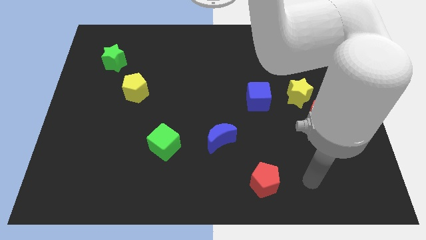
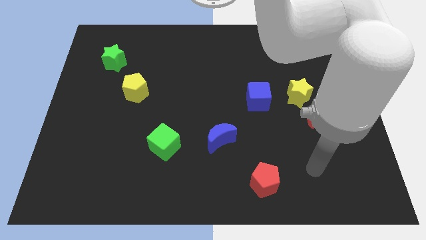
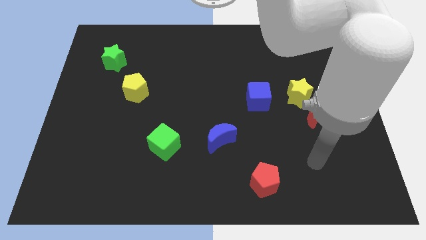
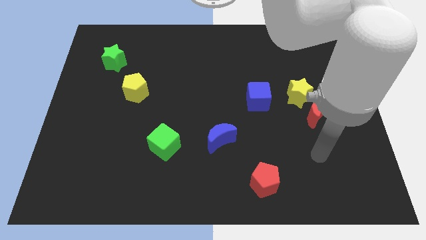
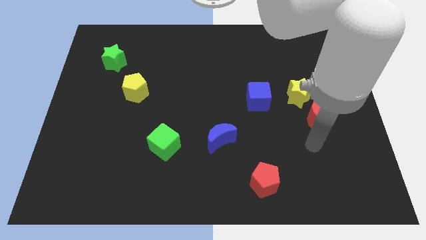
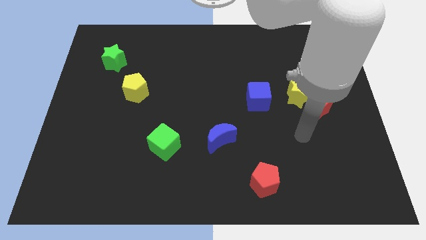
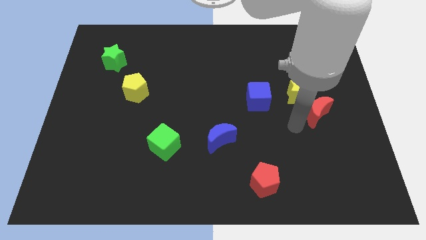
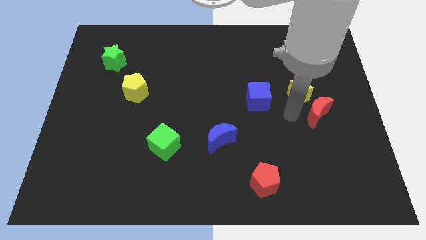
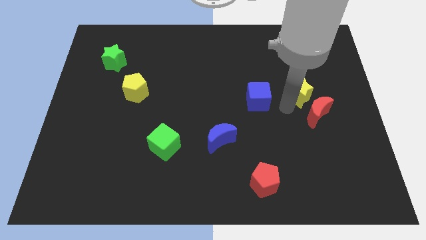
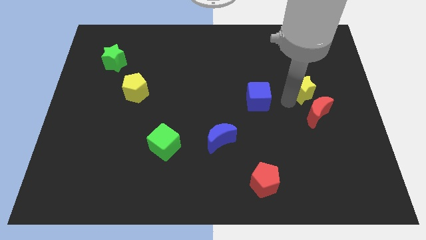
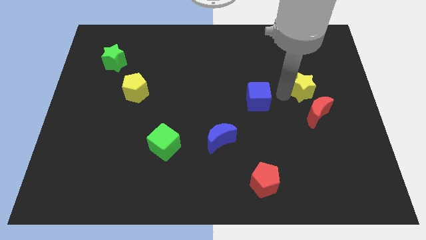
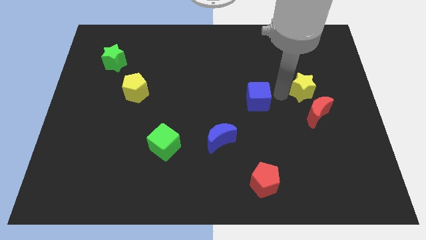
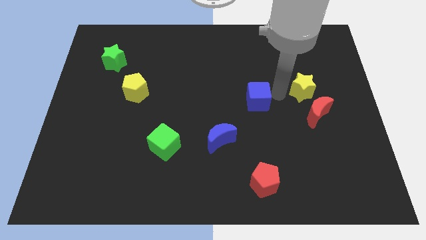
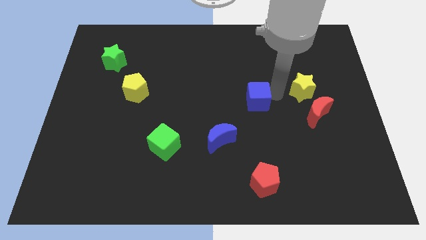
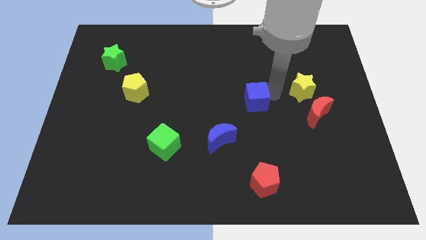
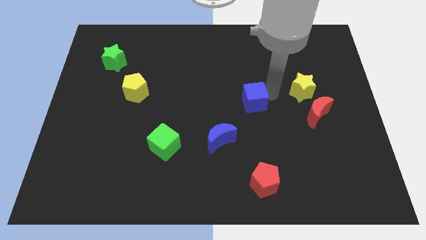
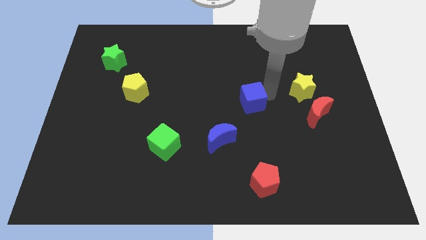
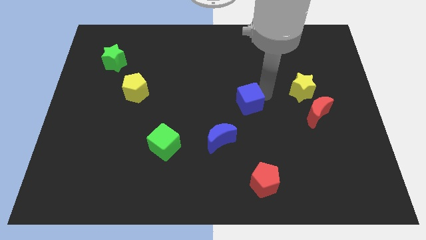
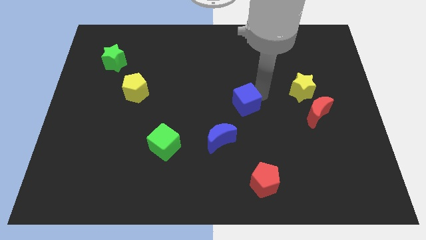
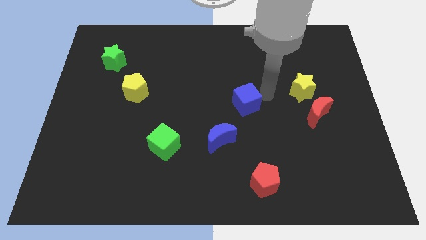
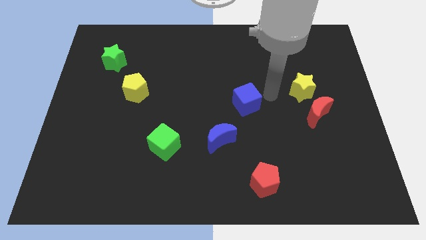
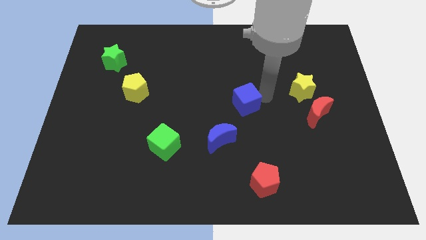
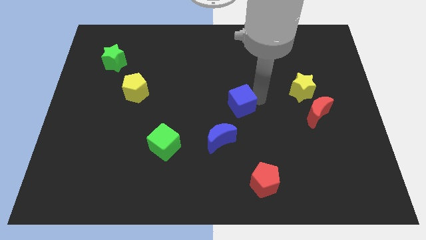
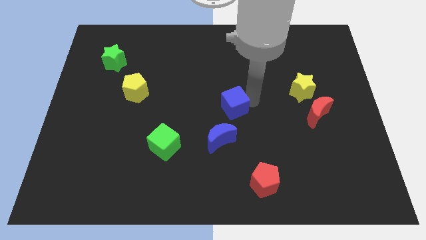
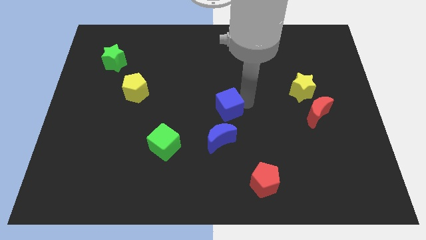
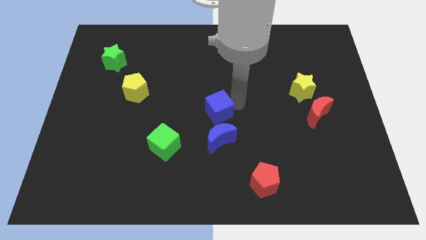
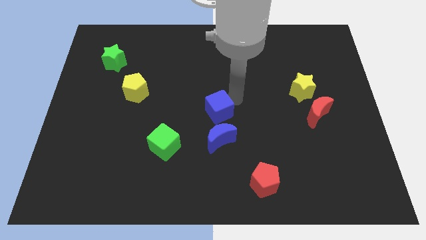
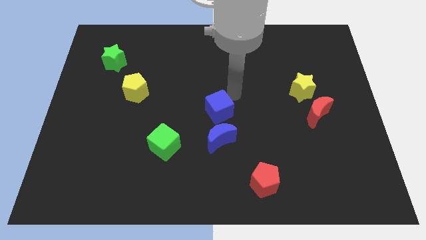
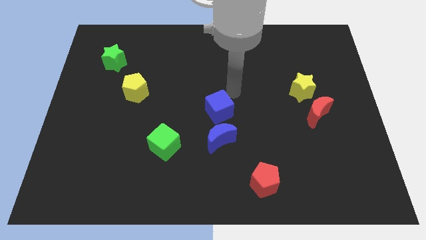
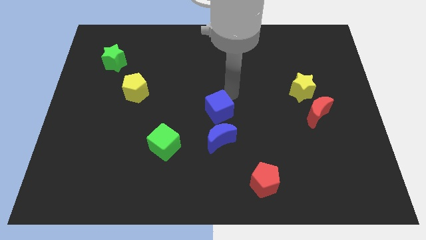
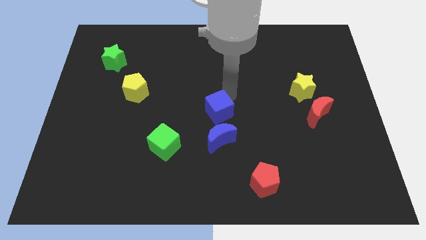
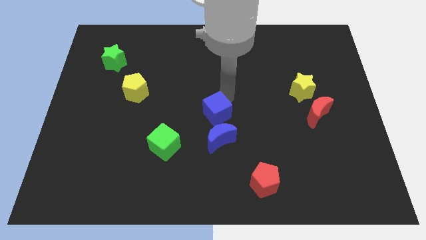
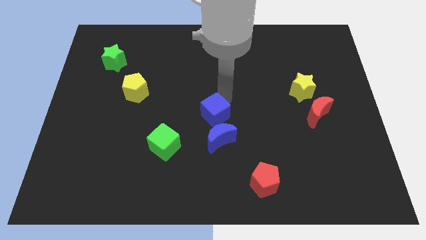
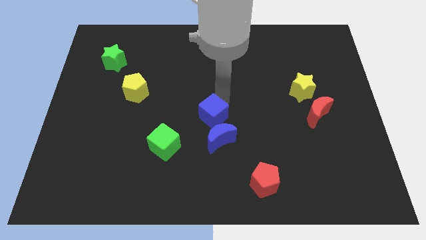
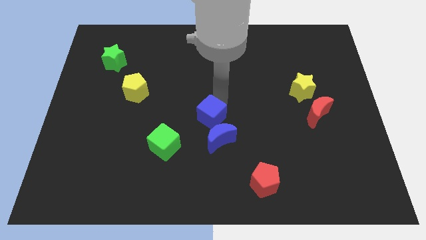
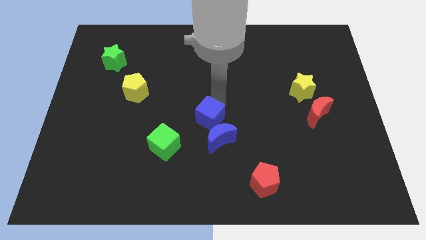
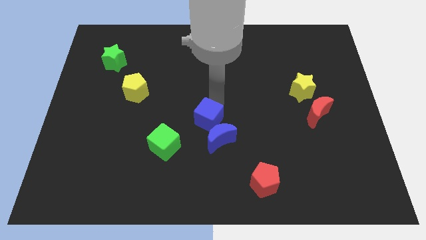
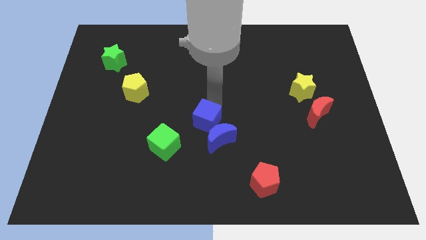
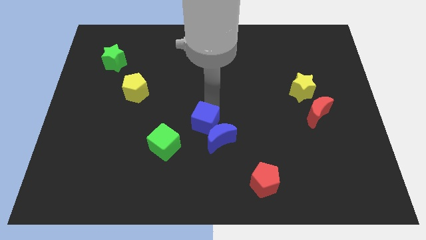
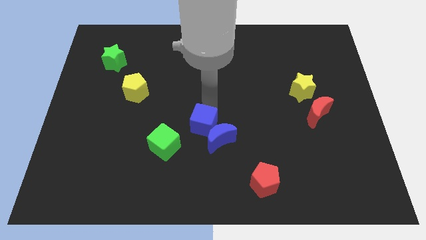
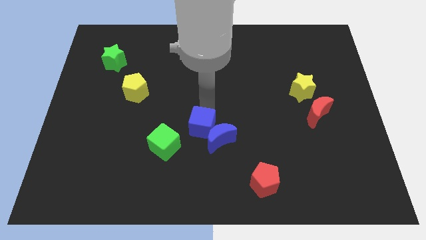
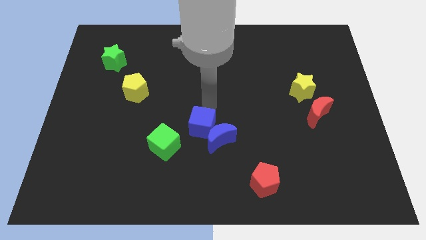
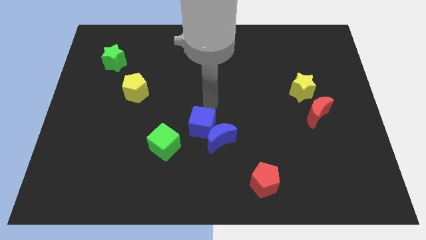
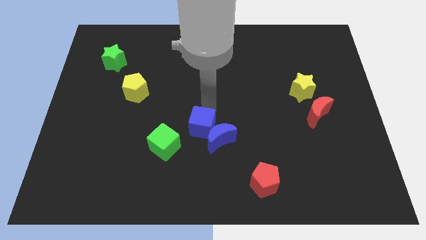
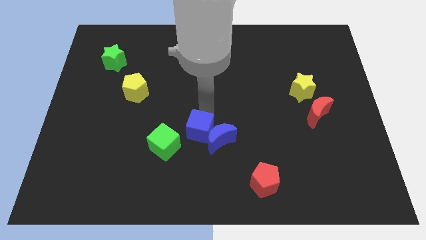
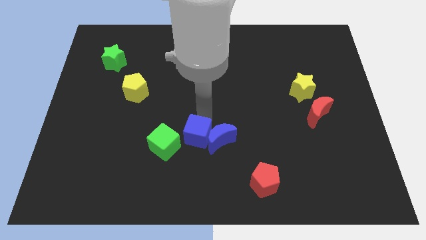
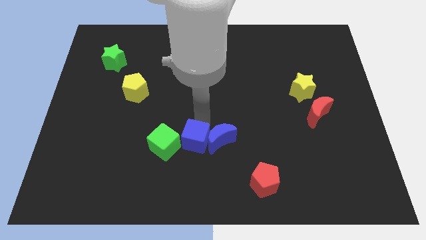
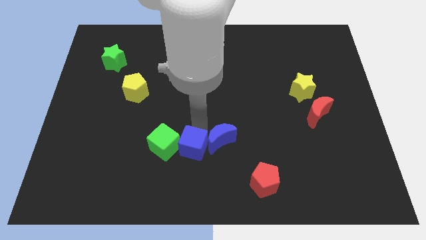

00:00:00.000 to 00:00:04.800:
slide the blue cube diagonally down and to the right of the green cube

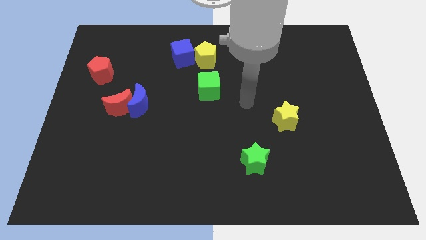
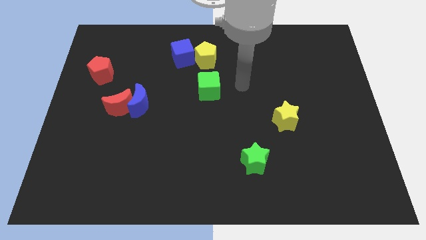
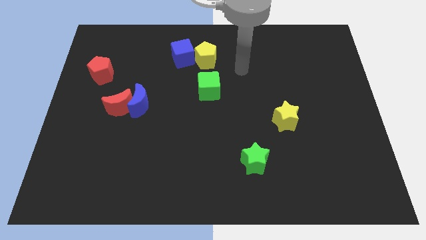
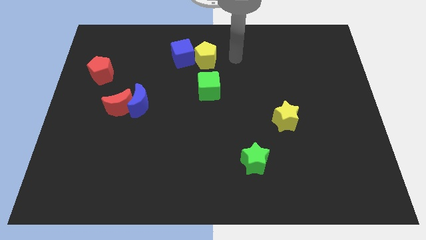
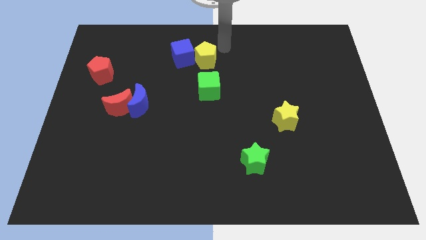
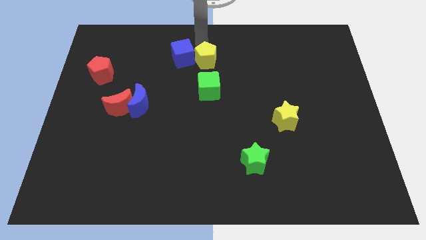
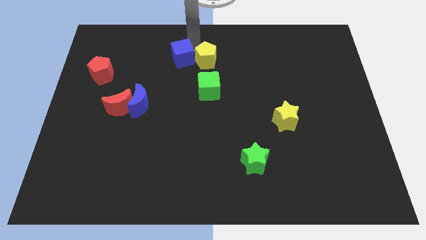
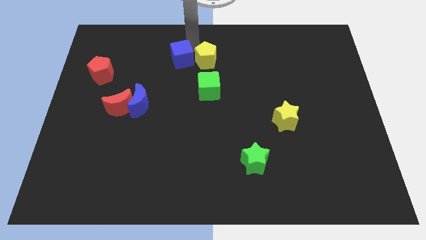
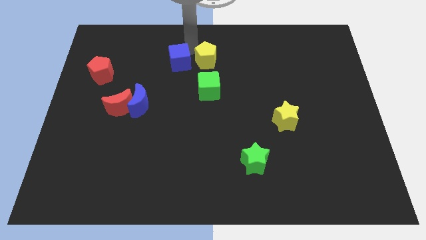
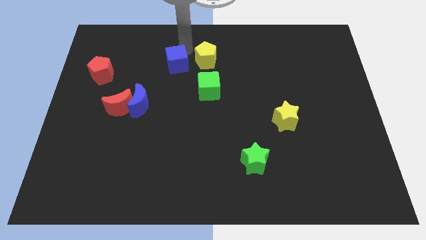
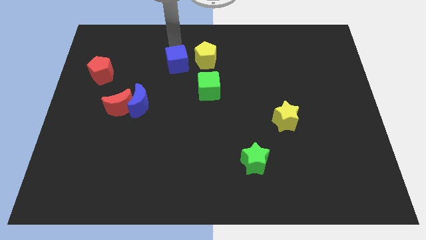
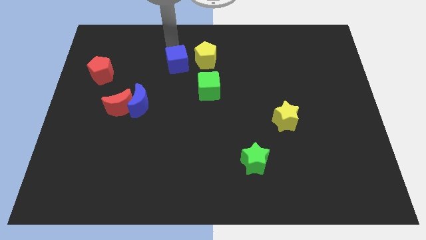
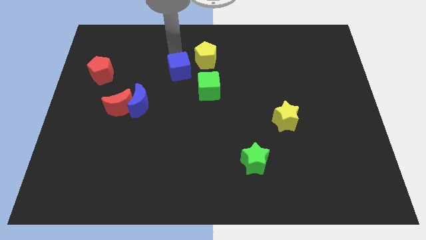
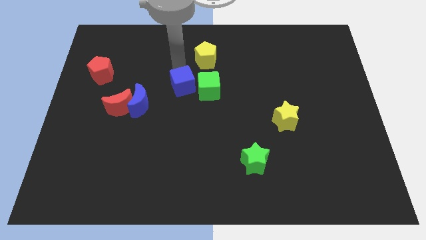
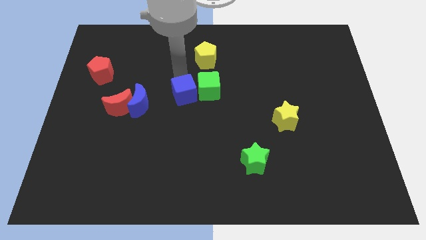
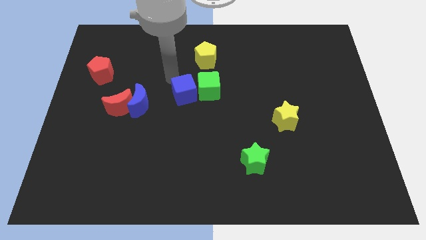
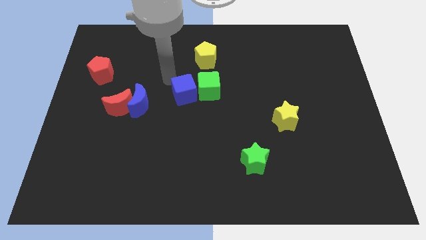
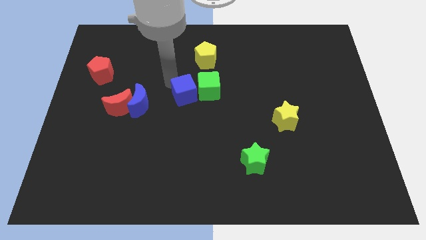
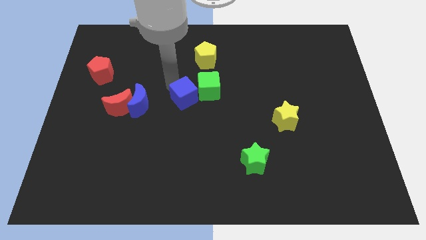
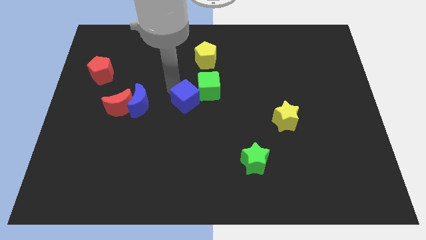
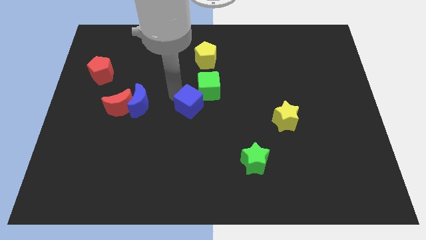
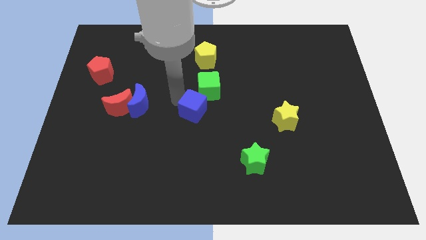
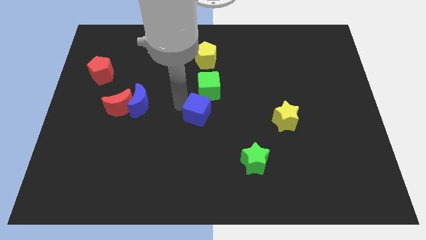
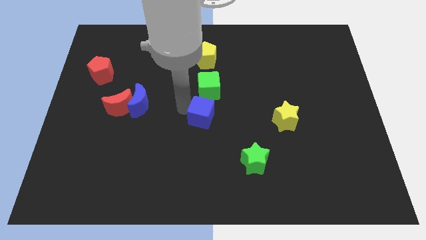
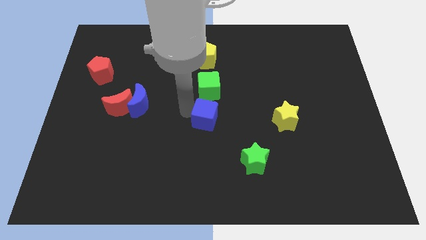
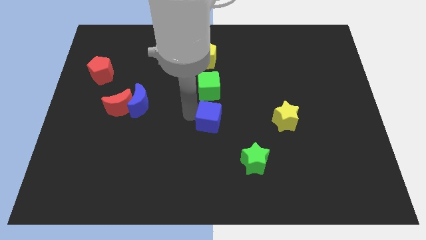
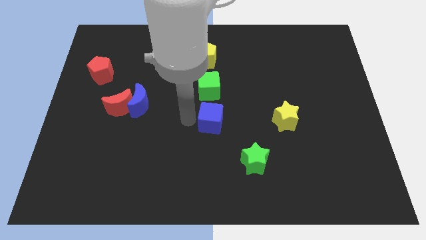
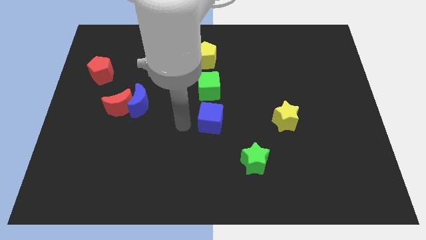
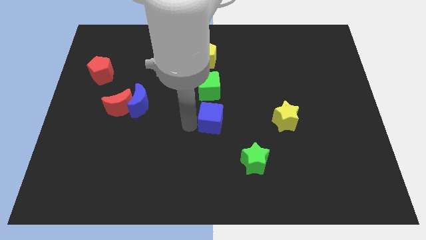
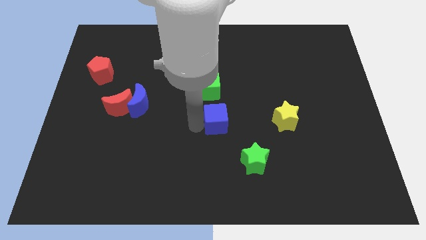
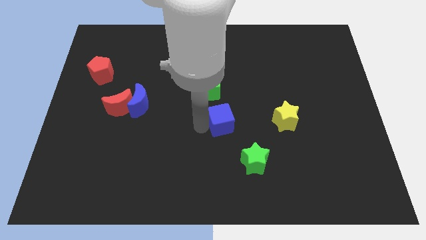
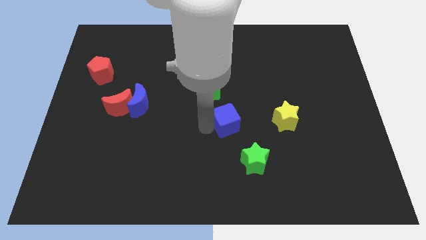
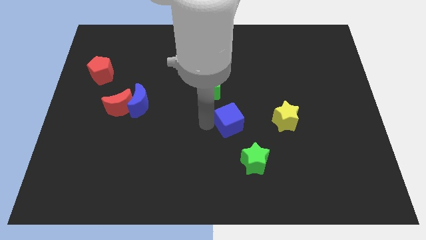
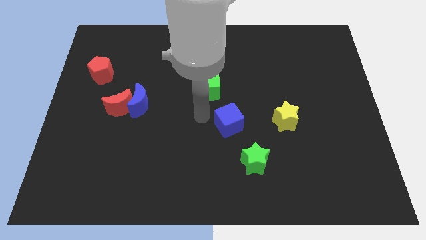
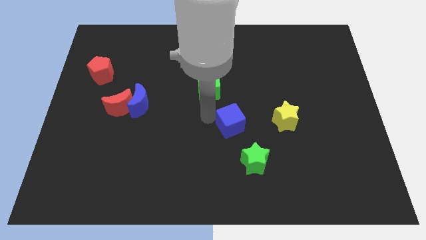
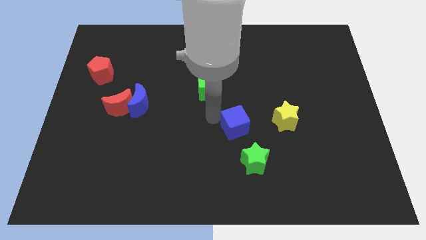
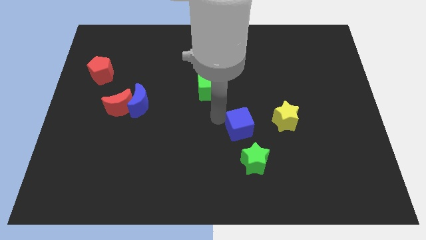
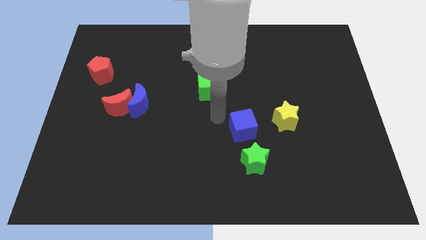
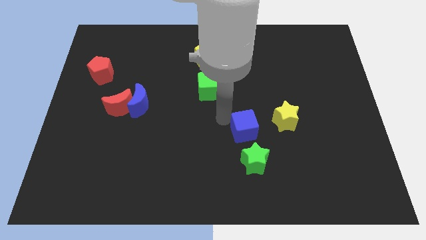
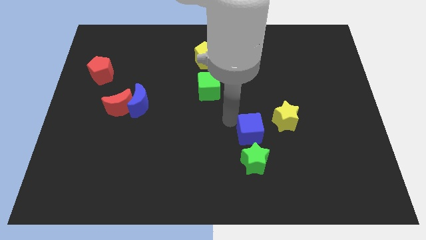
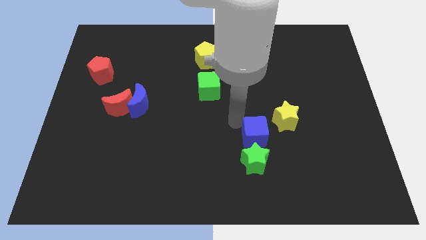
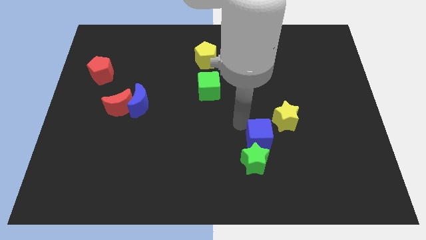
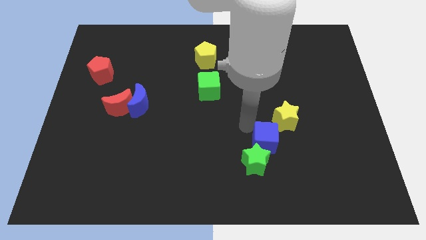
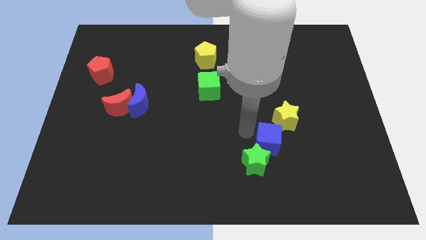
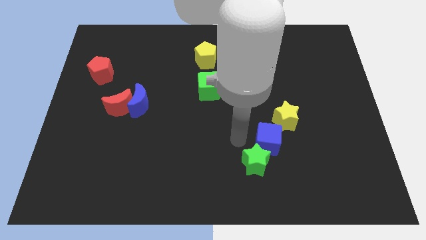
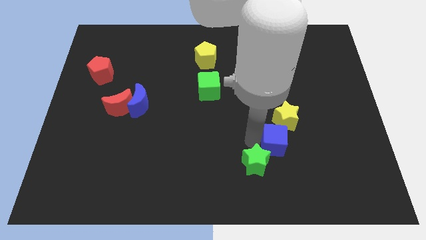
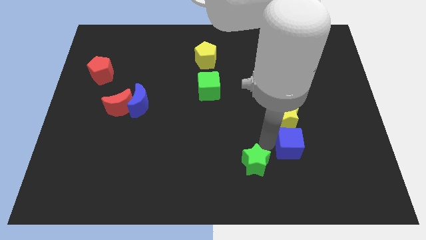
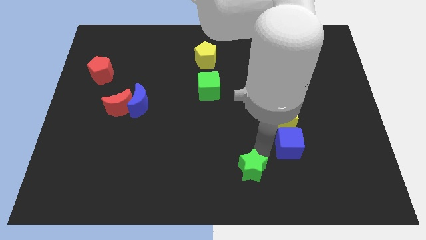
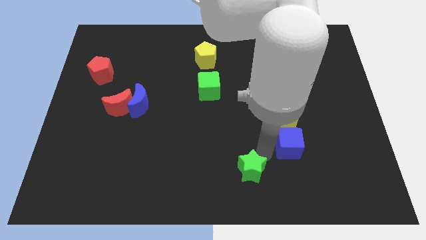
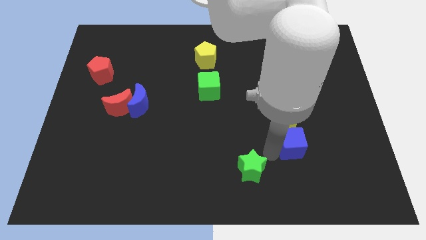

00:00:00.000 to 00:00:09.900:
slide the blue cube diagonally down and to the right of the yellow star
